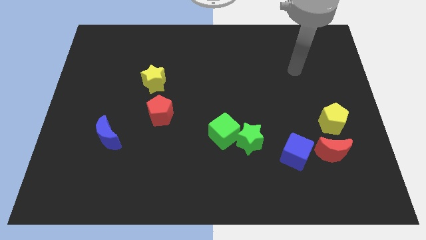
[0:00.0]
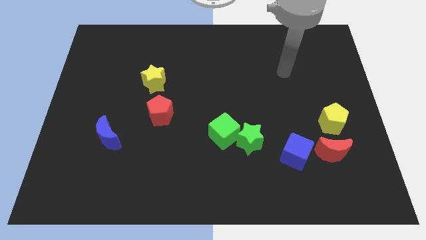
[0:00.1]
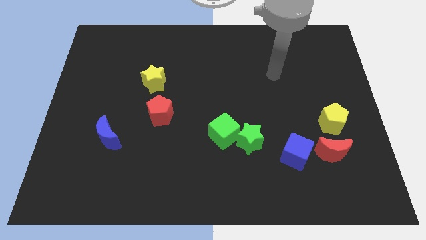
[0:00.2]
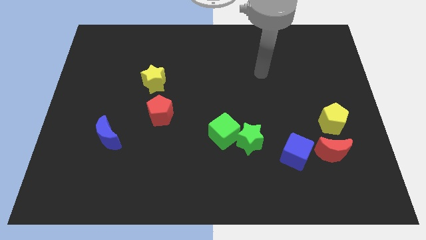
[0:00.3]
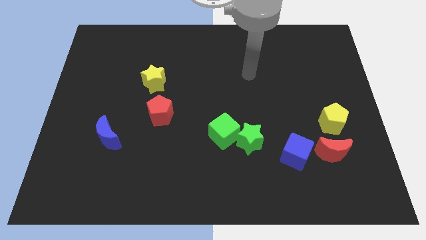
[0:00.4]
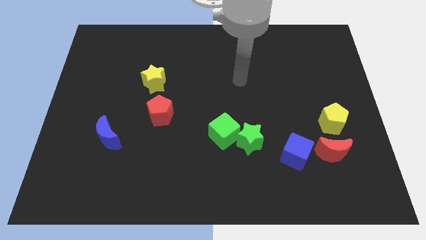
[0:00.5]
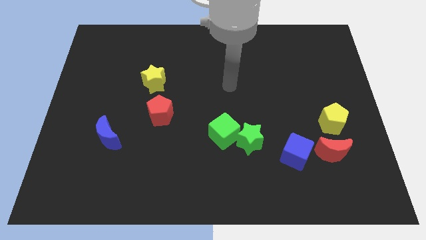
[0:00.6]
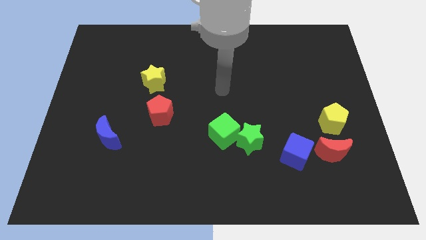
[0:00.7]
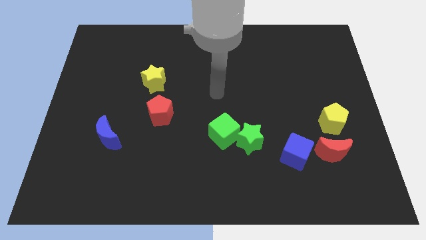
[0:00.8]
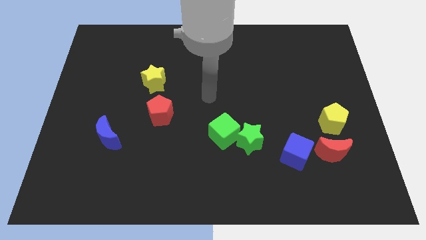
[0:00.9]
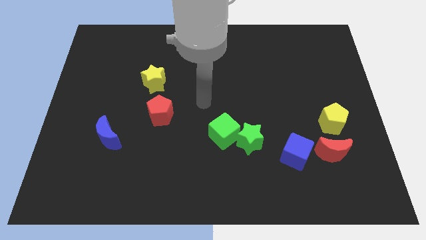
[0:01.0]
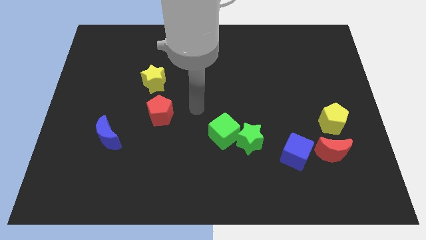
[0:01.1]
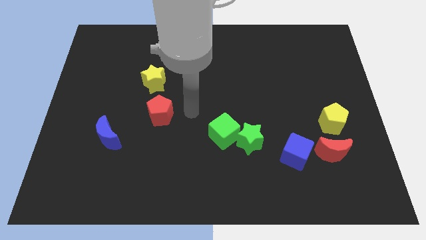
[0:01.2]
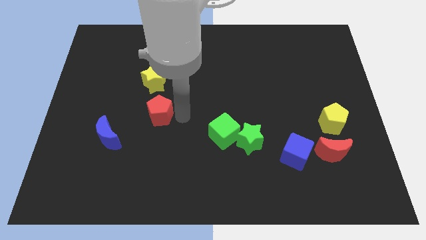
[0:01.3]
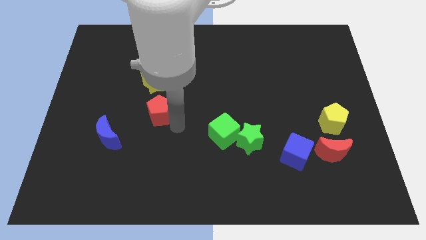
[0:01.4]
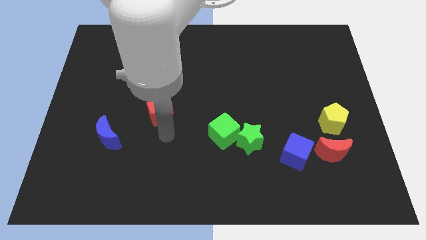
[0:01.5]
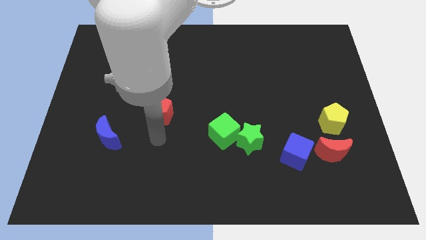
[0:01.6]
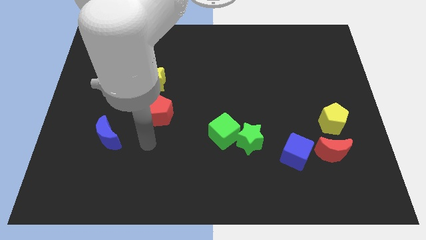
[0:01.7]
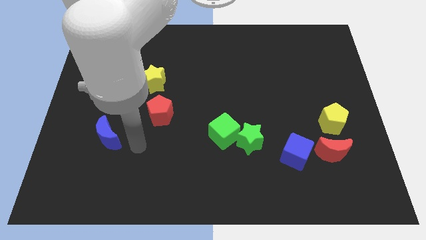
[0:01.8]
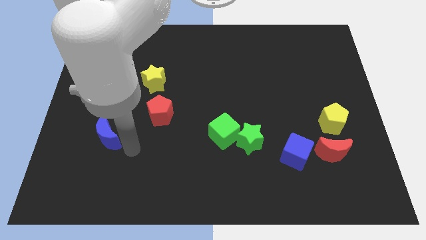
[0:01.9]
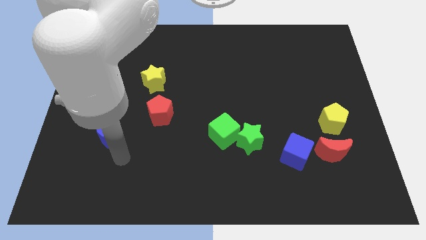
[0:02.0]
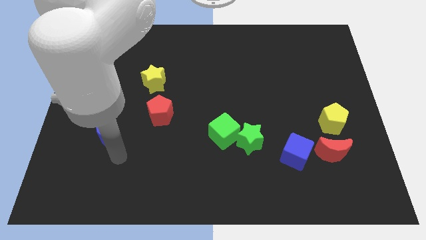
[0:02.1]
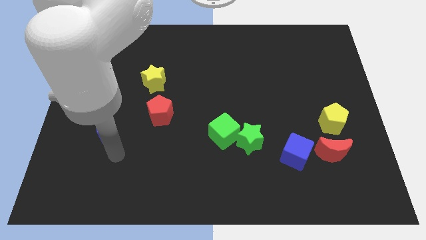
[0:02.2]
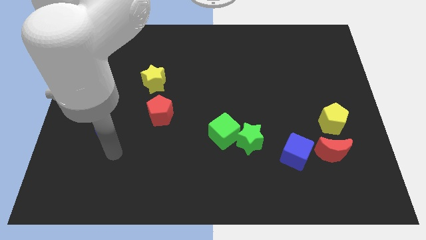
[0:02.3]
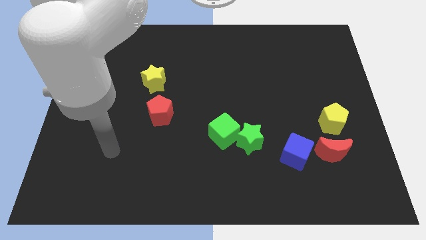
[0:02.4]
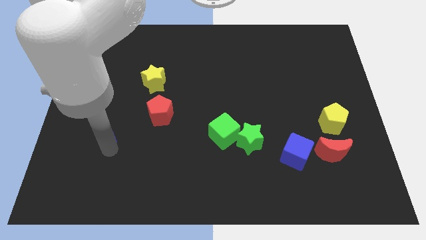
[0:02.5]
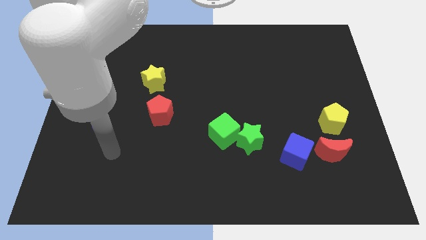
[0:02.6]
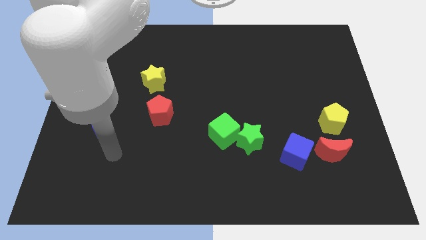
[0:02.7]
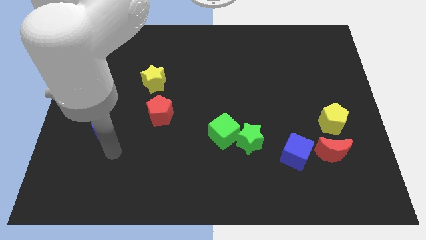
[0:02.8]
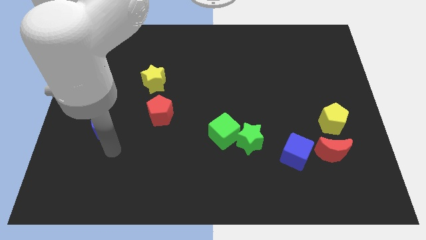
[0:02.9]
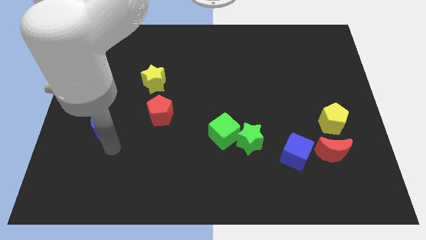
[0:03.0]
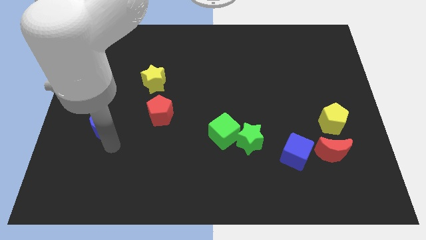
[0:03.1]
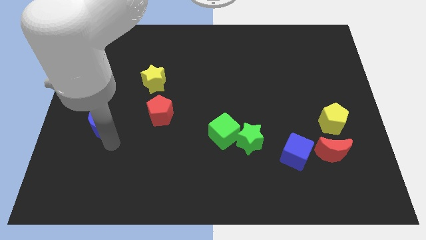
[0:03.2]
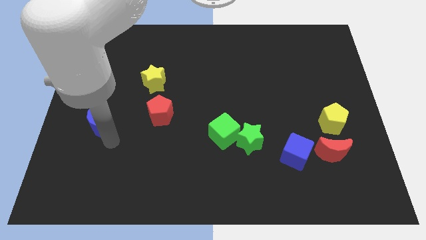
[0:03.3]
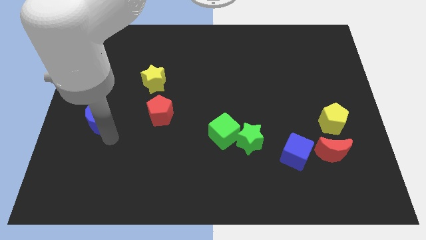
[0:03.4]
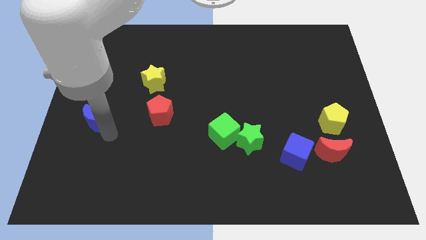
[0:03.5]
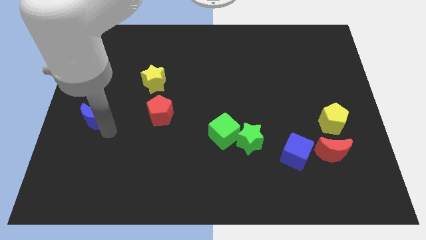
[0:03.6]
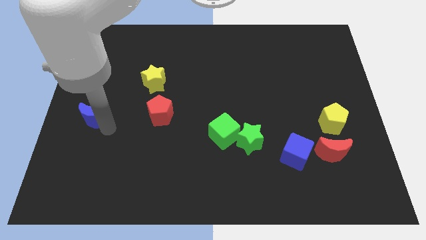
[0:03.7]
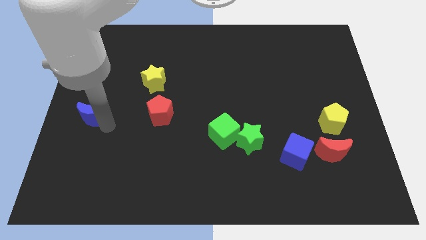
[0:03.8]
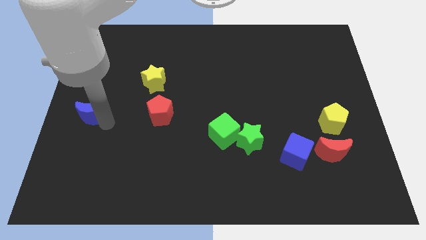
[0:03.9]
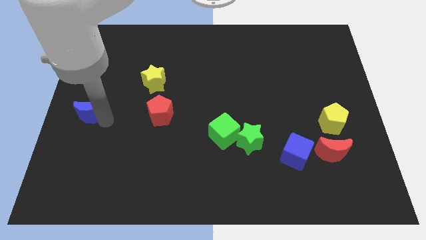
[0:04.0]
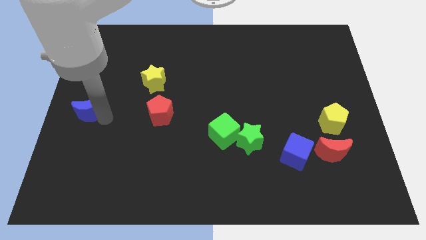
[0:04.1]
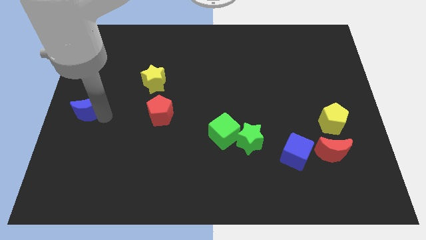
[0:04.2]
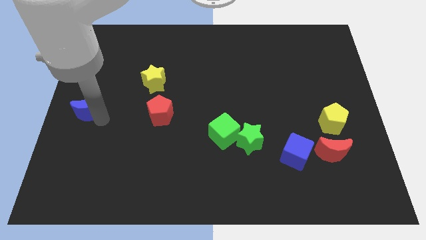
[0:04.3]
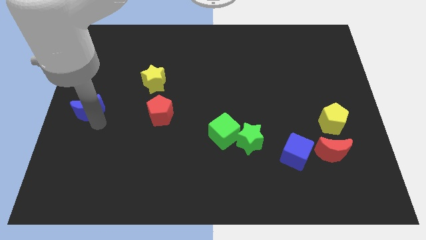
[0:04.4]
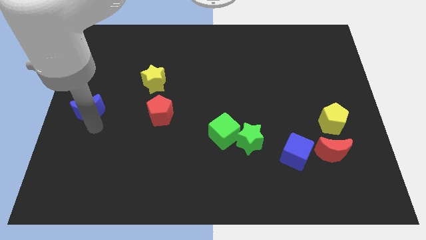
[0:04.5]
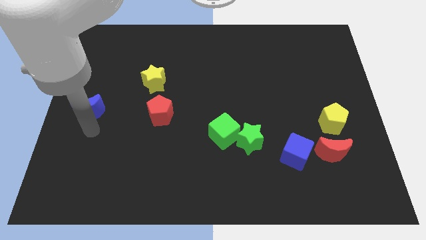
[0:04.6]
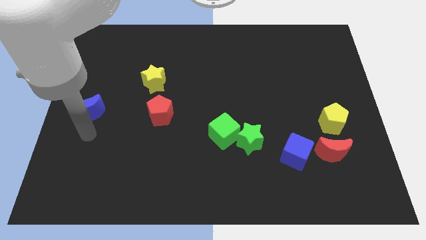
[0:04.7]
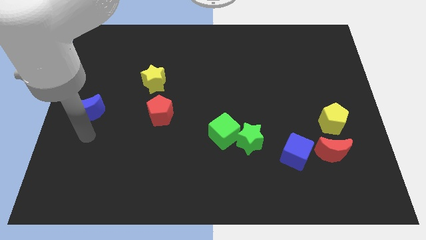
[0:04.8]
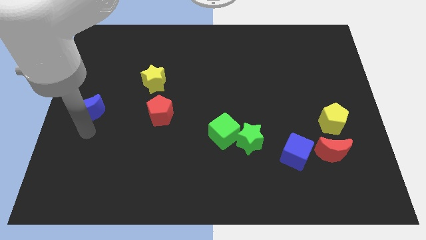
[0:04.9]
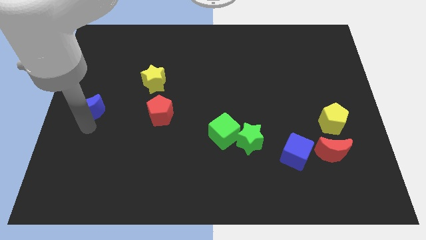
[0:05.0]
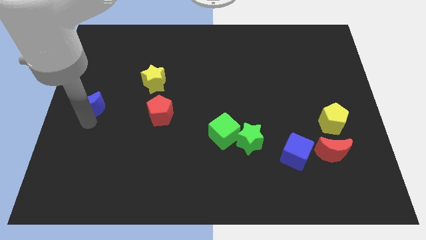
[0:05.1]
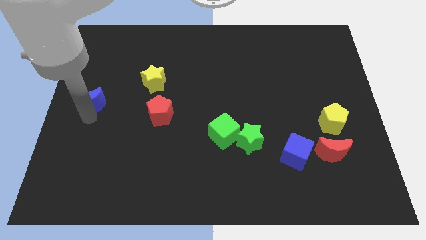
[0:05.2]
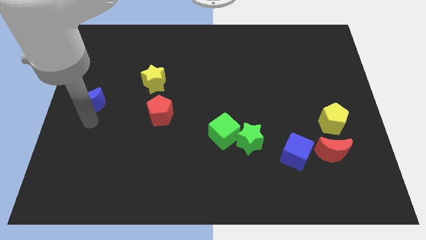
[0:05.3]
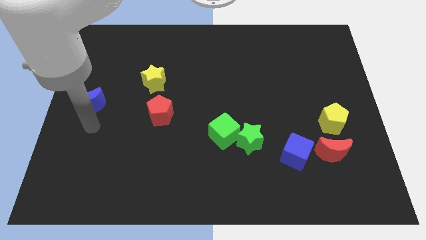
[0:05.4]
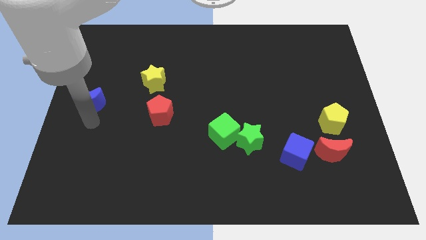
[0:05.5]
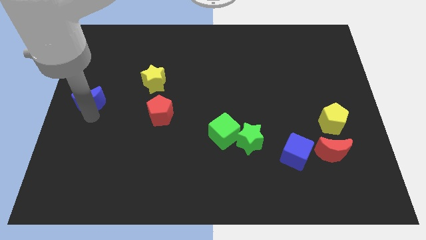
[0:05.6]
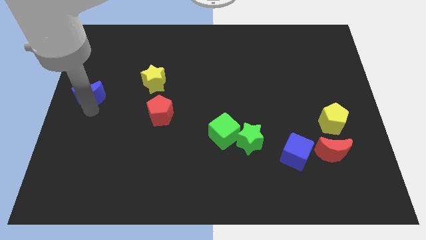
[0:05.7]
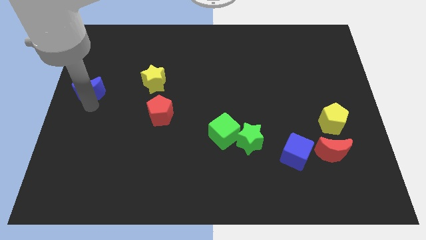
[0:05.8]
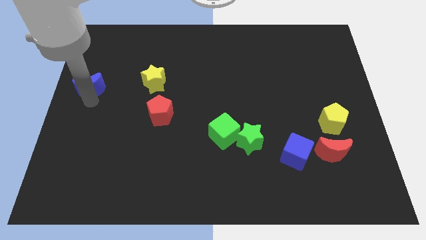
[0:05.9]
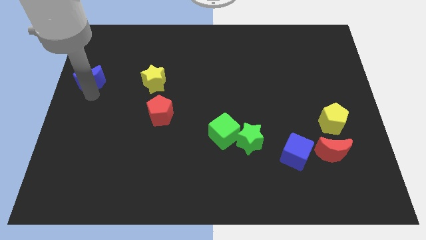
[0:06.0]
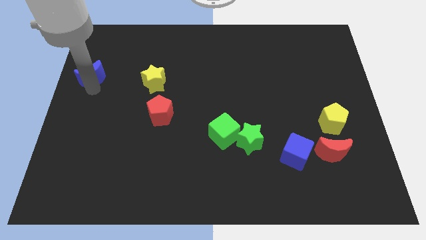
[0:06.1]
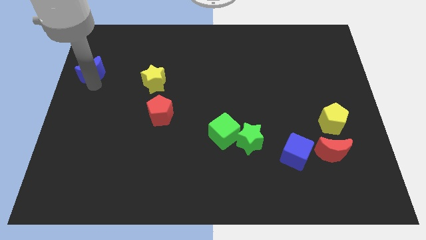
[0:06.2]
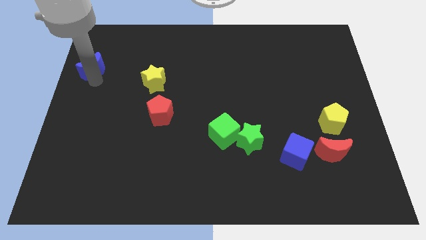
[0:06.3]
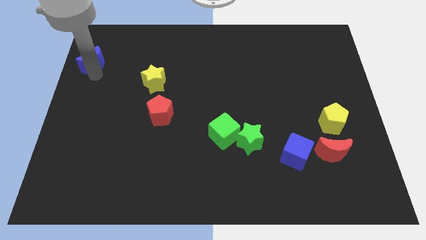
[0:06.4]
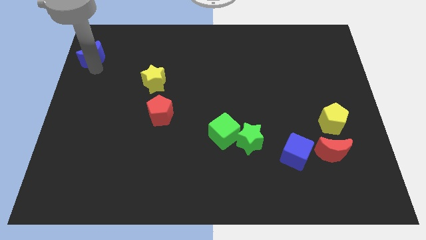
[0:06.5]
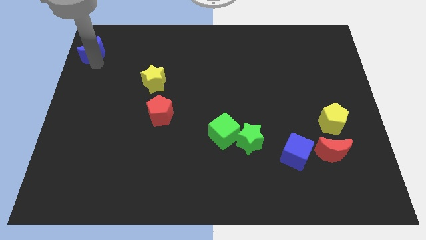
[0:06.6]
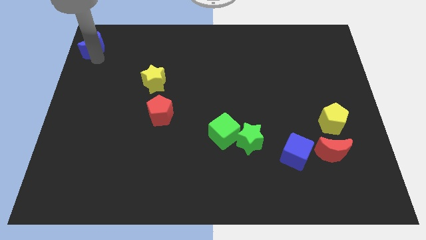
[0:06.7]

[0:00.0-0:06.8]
push the blue moon to the top left
